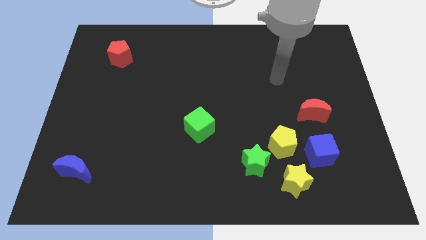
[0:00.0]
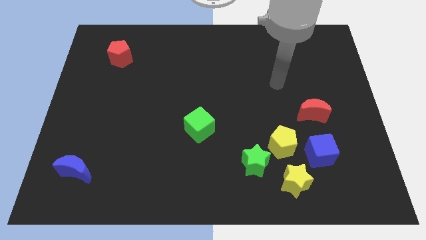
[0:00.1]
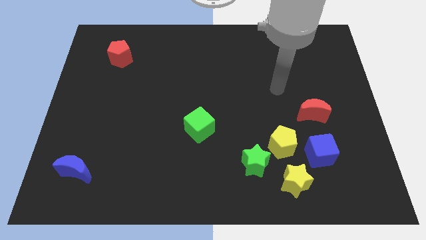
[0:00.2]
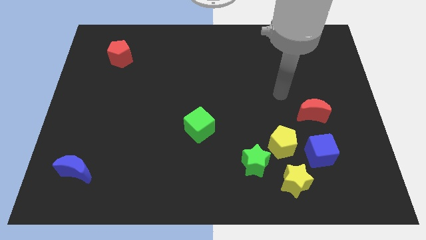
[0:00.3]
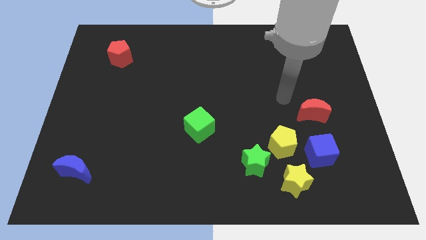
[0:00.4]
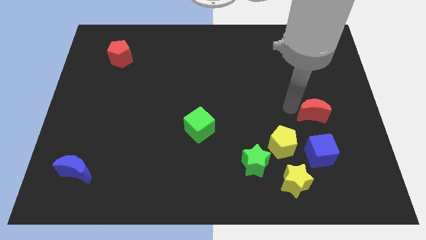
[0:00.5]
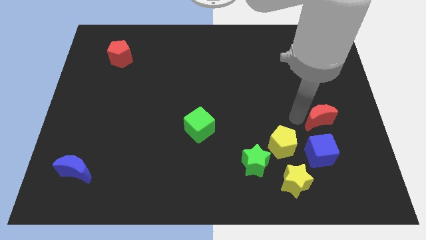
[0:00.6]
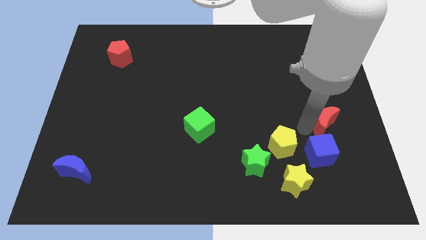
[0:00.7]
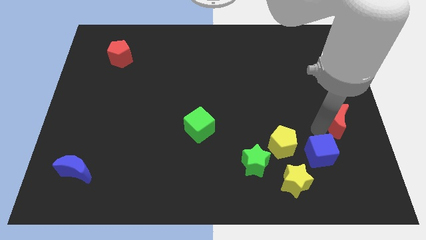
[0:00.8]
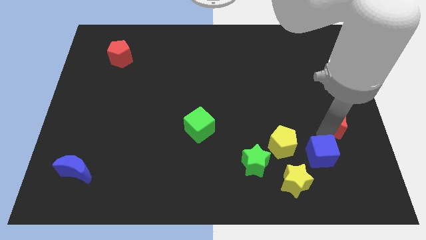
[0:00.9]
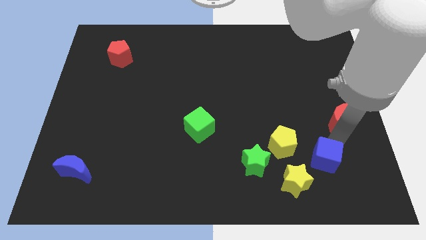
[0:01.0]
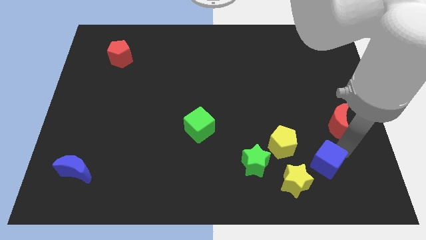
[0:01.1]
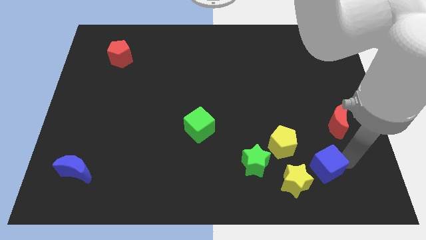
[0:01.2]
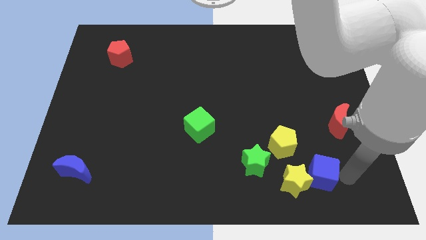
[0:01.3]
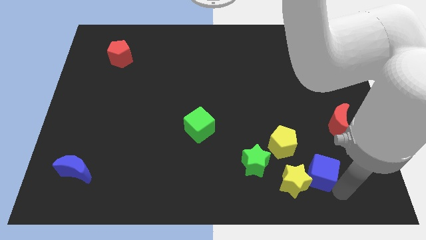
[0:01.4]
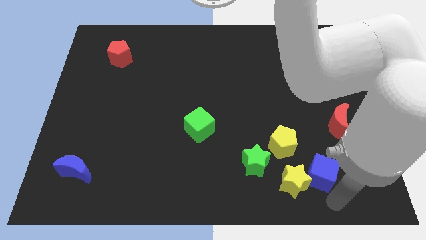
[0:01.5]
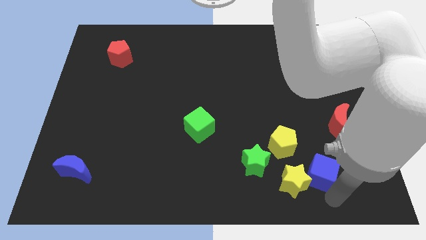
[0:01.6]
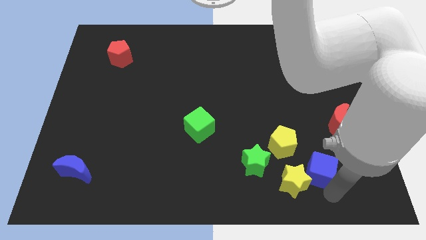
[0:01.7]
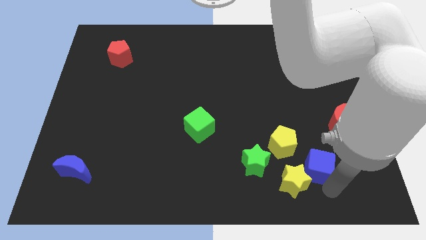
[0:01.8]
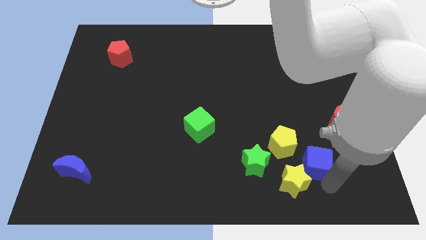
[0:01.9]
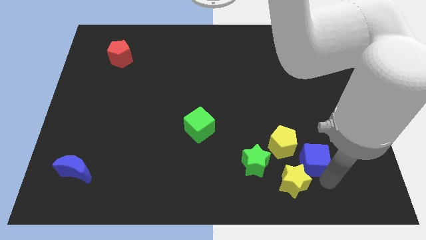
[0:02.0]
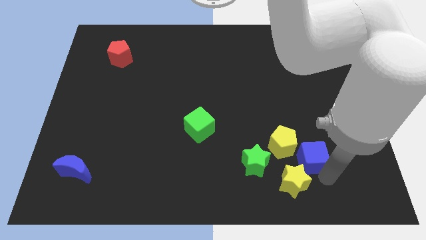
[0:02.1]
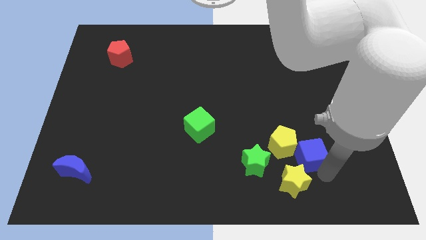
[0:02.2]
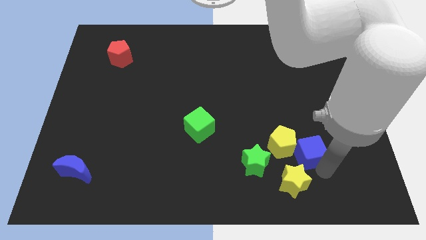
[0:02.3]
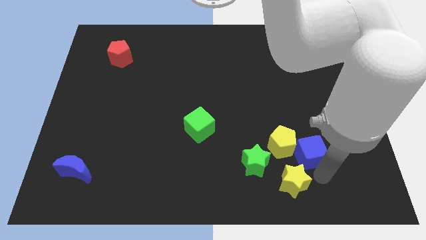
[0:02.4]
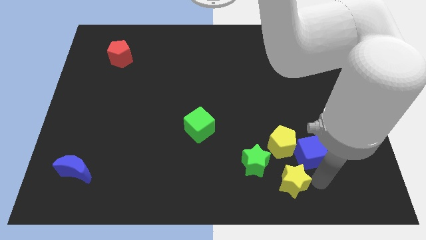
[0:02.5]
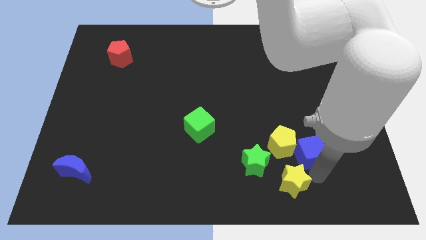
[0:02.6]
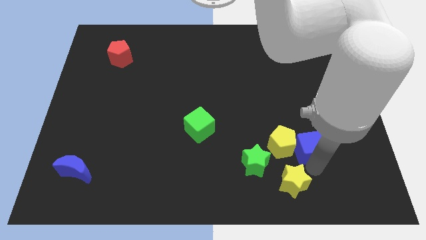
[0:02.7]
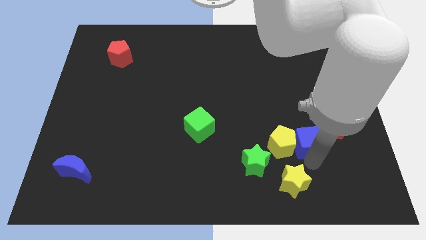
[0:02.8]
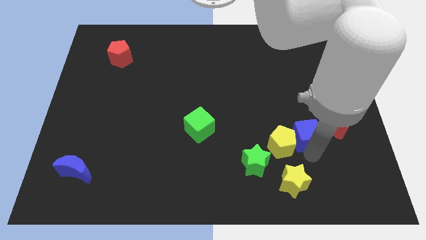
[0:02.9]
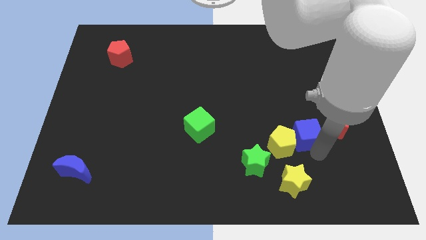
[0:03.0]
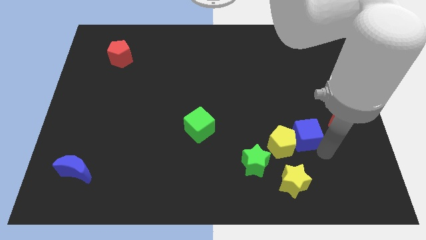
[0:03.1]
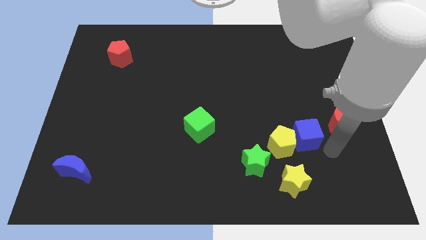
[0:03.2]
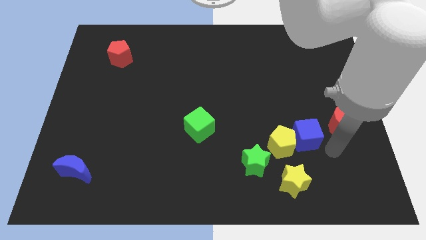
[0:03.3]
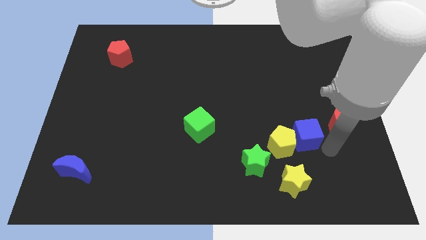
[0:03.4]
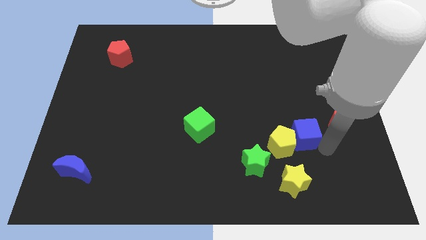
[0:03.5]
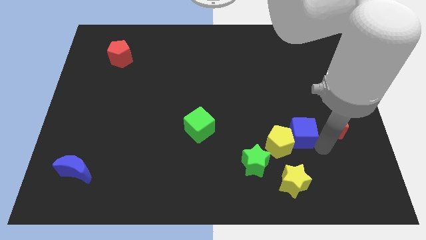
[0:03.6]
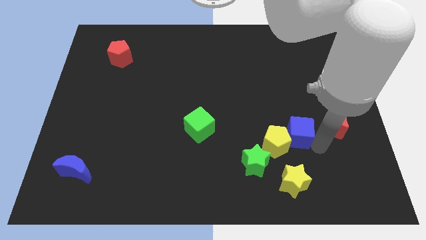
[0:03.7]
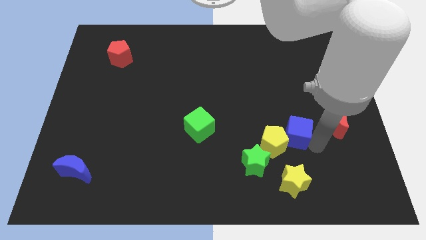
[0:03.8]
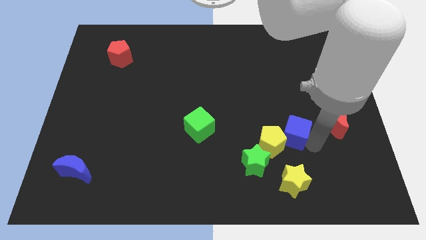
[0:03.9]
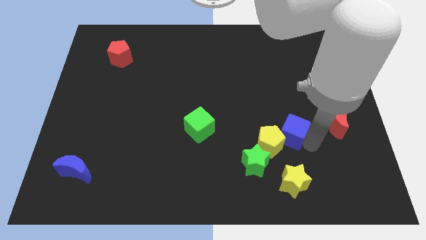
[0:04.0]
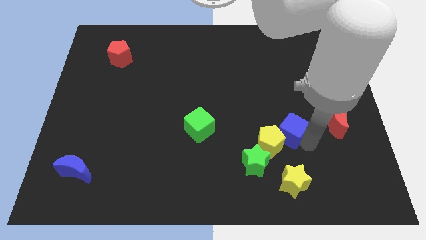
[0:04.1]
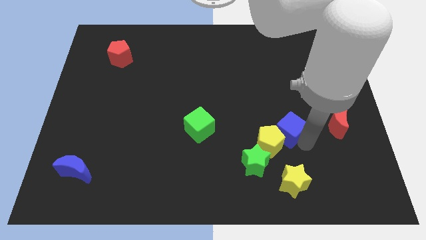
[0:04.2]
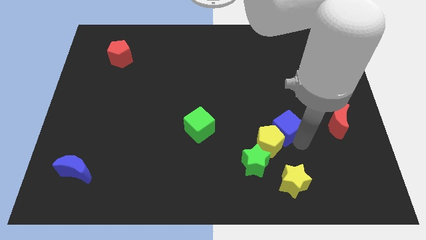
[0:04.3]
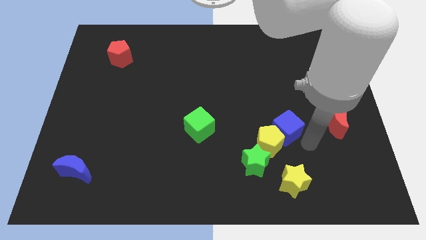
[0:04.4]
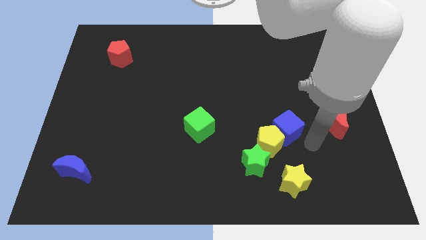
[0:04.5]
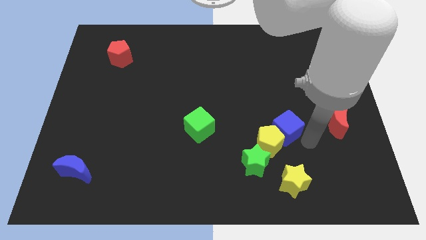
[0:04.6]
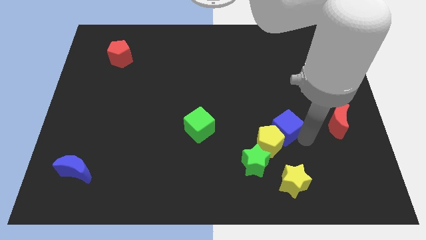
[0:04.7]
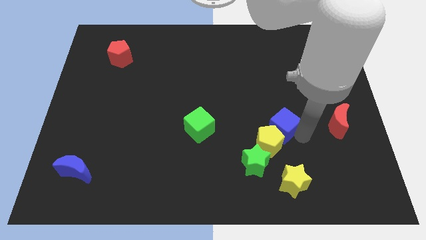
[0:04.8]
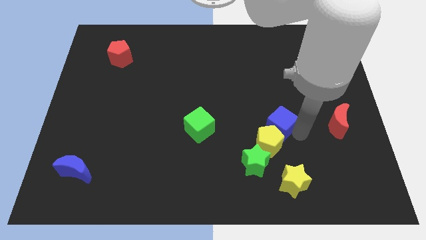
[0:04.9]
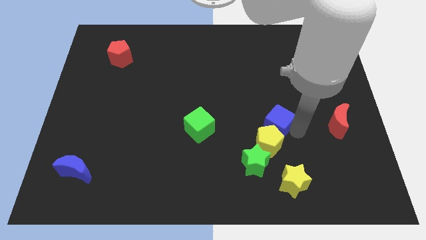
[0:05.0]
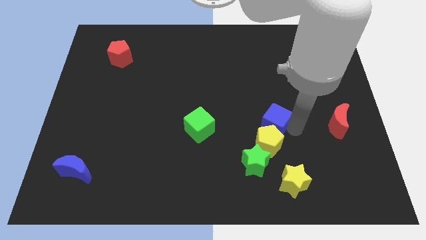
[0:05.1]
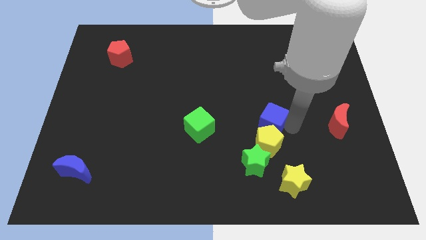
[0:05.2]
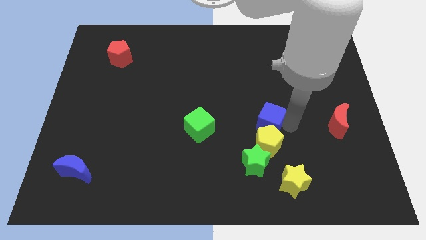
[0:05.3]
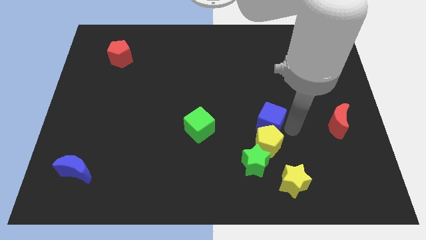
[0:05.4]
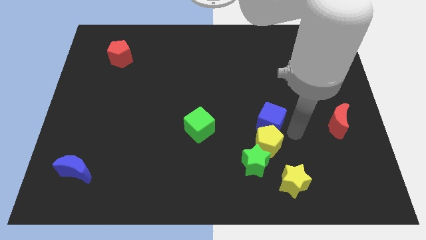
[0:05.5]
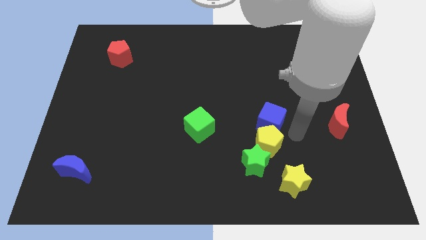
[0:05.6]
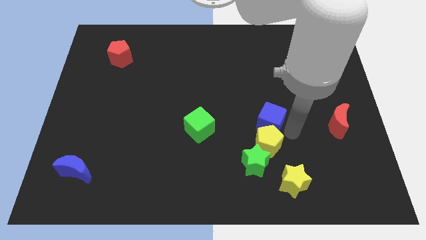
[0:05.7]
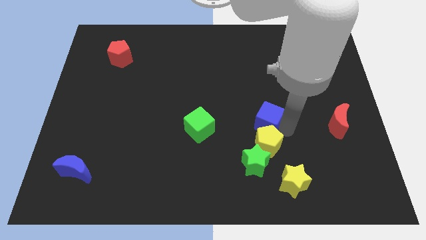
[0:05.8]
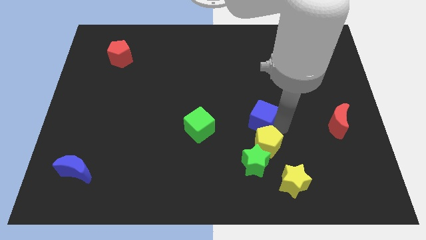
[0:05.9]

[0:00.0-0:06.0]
slide the blue cube to the center of the board

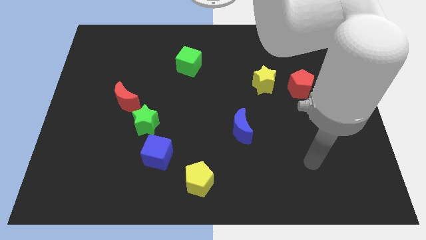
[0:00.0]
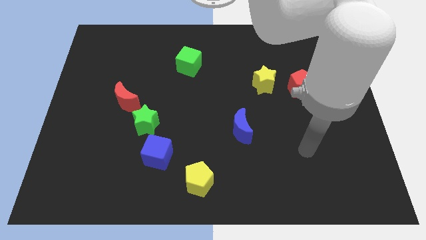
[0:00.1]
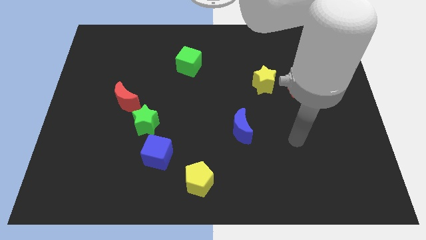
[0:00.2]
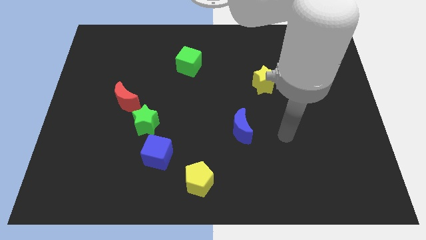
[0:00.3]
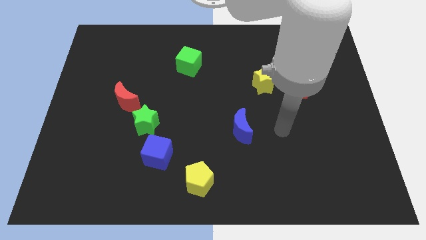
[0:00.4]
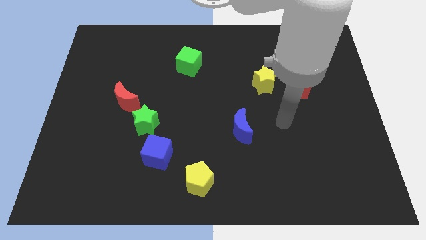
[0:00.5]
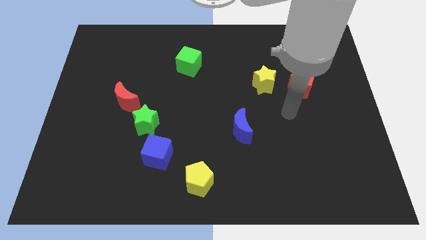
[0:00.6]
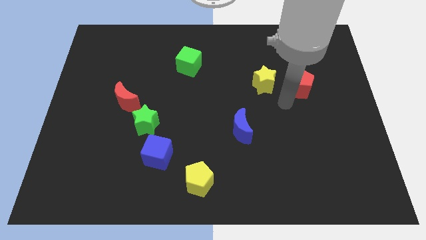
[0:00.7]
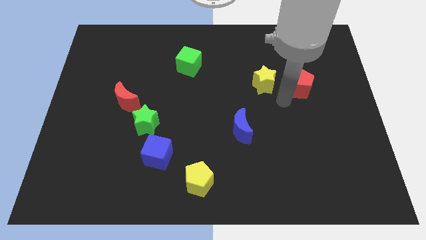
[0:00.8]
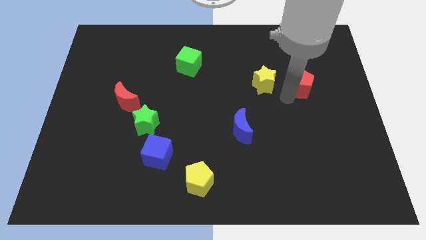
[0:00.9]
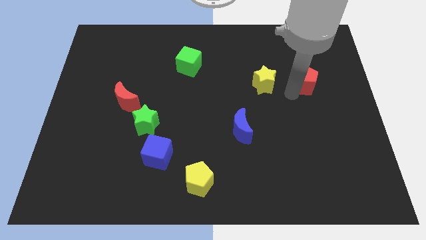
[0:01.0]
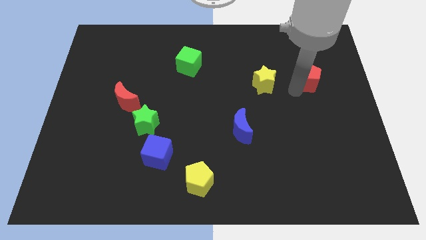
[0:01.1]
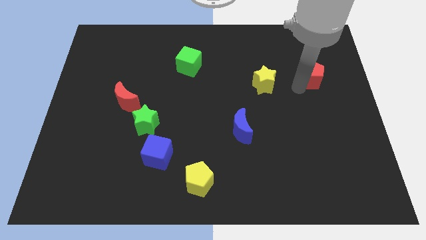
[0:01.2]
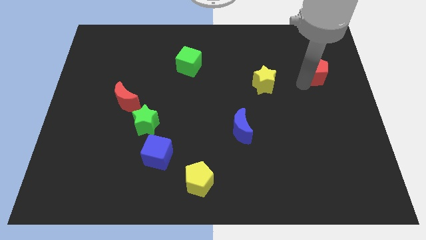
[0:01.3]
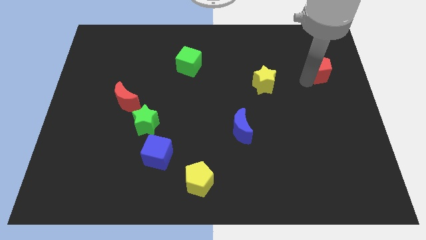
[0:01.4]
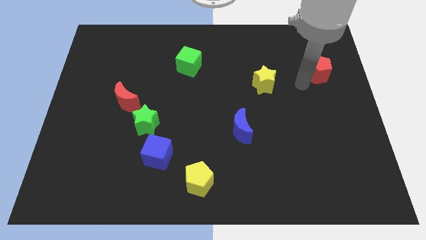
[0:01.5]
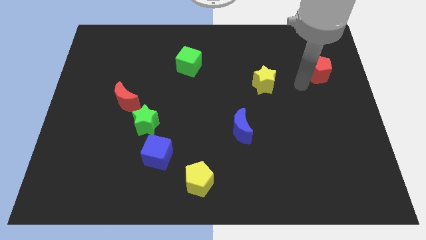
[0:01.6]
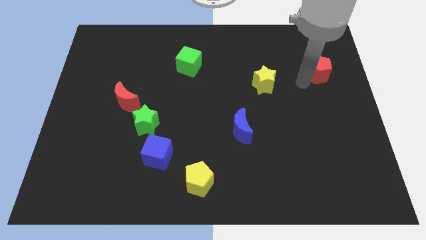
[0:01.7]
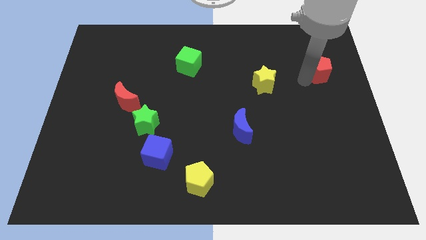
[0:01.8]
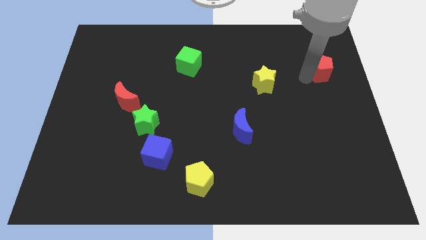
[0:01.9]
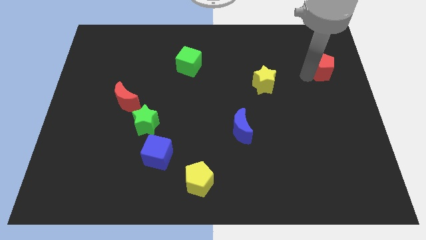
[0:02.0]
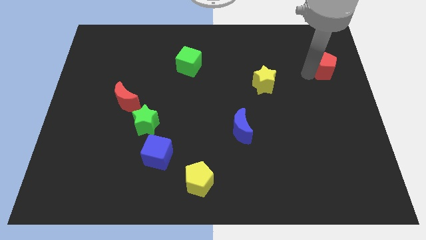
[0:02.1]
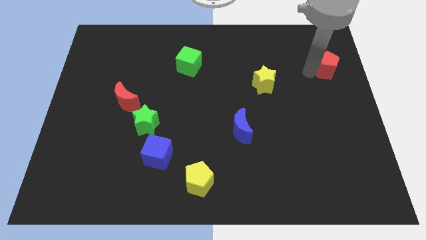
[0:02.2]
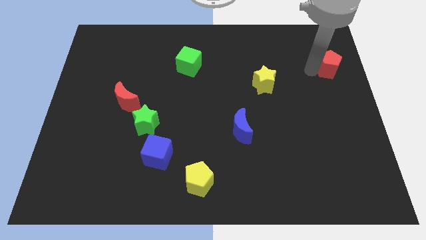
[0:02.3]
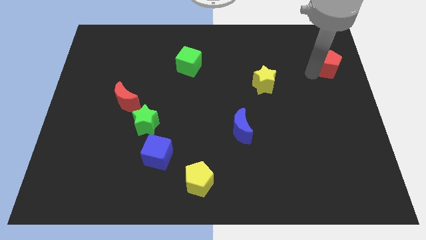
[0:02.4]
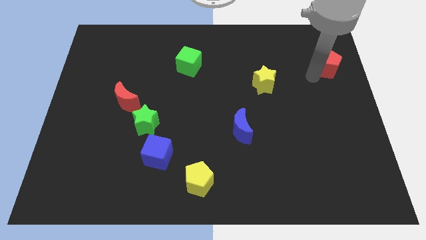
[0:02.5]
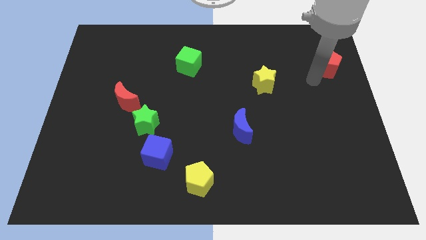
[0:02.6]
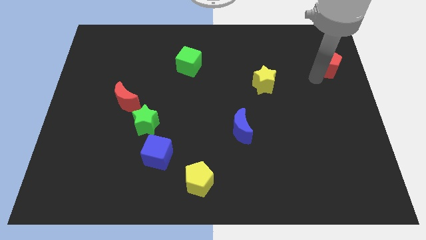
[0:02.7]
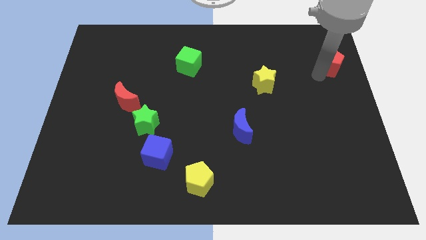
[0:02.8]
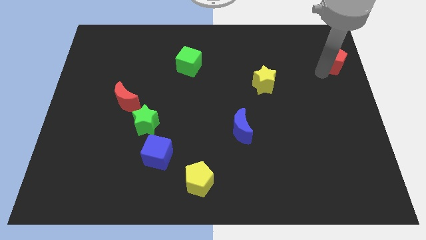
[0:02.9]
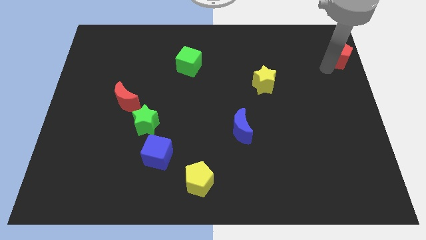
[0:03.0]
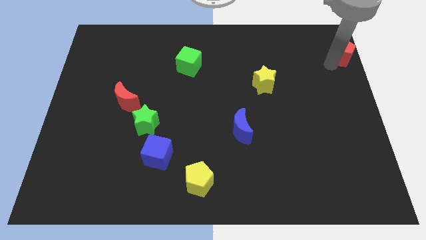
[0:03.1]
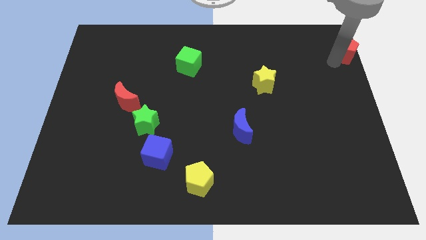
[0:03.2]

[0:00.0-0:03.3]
move the red pentagon to the upper right corner
